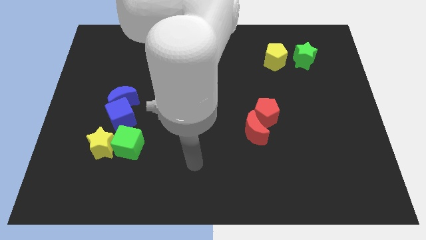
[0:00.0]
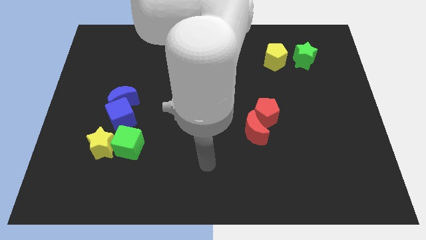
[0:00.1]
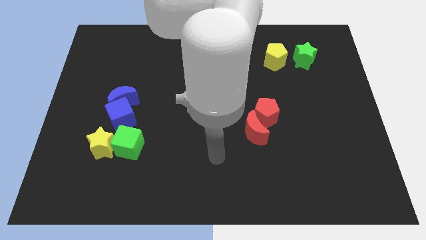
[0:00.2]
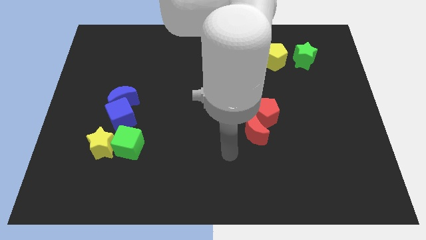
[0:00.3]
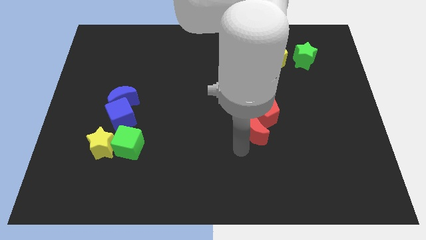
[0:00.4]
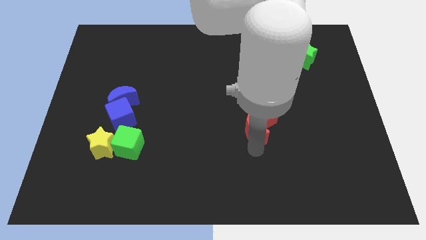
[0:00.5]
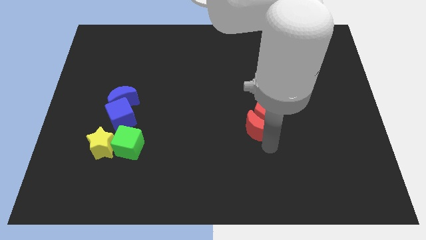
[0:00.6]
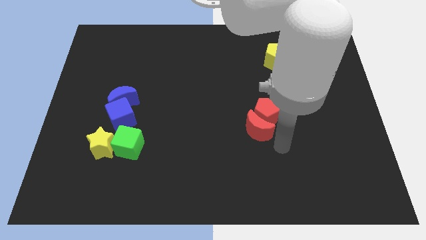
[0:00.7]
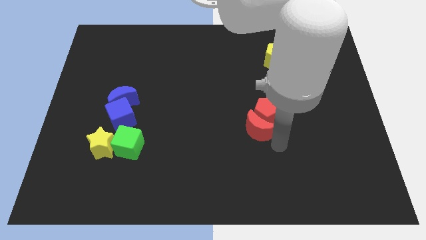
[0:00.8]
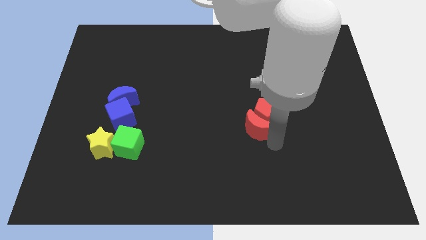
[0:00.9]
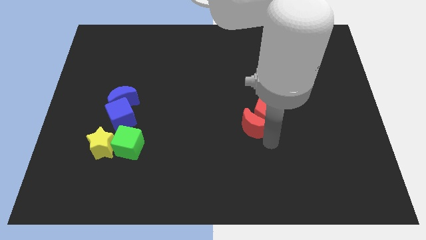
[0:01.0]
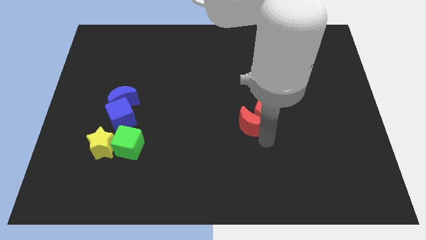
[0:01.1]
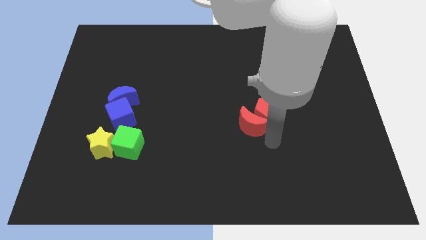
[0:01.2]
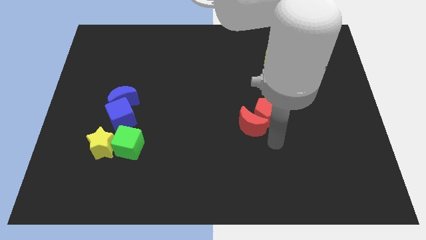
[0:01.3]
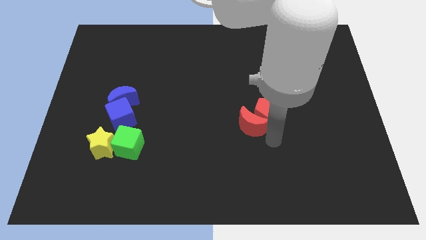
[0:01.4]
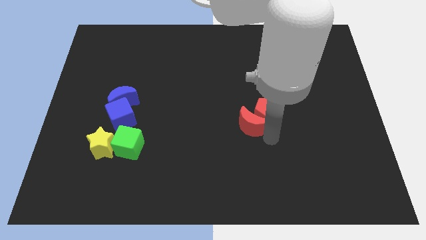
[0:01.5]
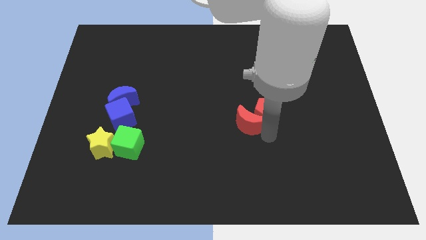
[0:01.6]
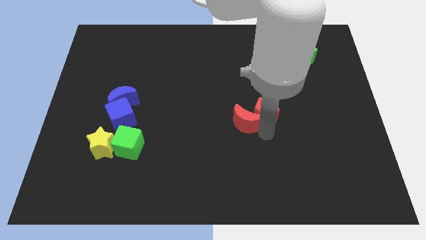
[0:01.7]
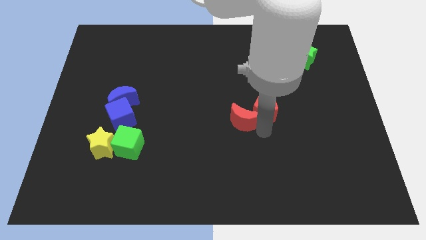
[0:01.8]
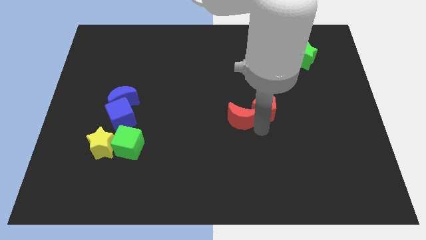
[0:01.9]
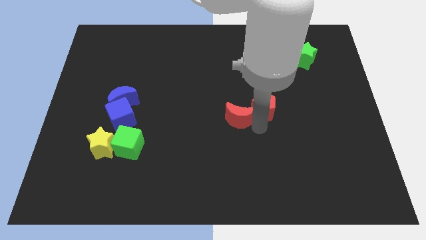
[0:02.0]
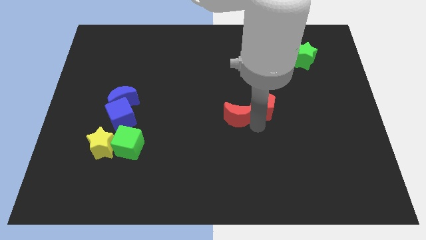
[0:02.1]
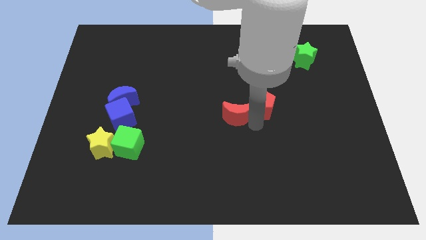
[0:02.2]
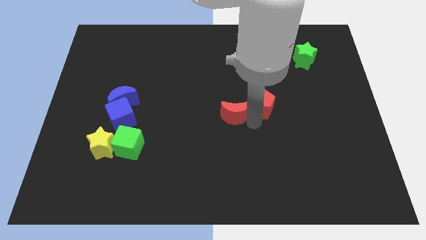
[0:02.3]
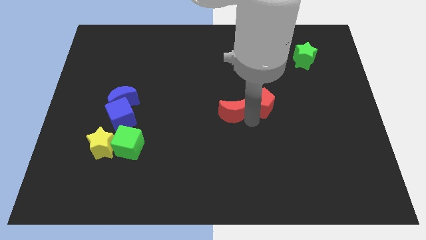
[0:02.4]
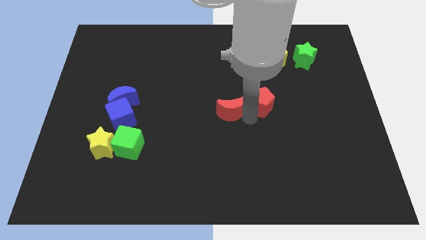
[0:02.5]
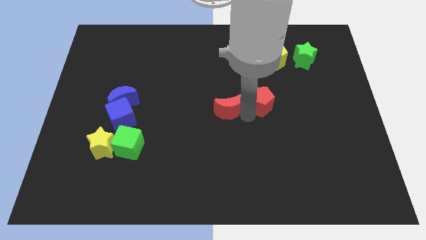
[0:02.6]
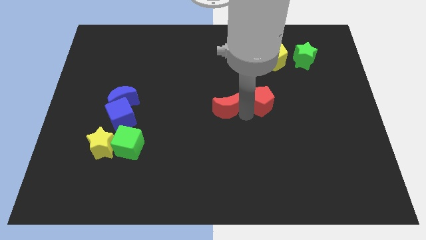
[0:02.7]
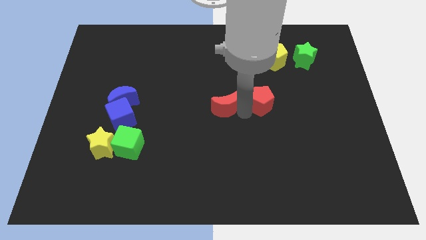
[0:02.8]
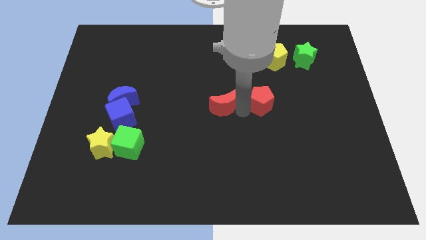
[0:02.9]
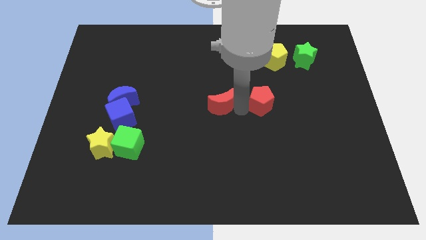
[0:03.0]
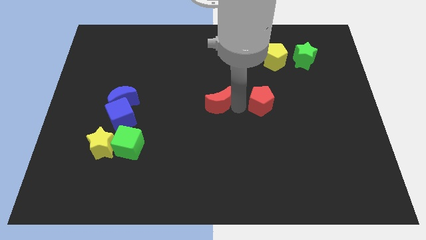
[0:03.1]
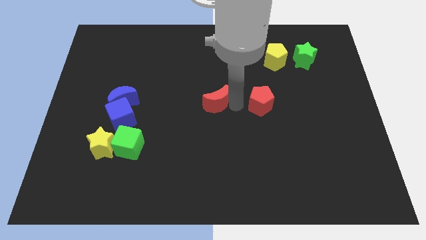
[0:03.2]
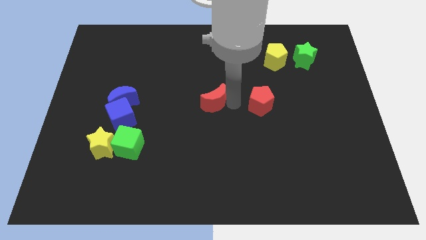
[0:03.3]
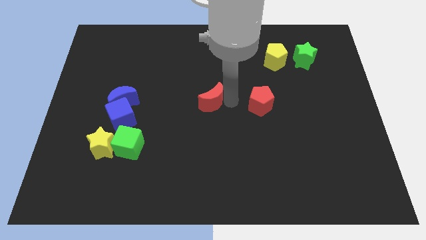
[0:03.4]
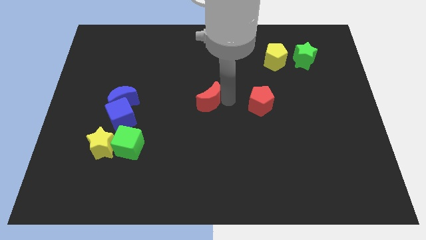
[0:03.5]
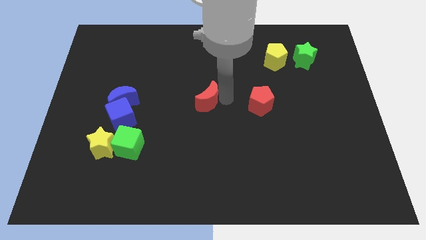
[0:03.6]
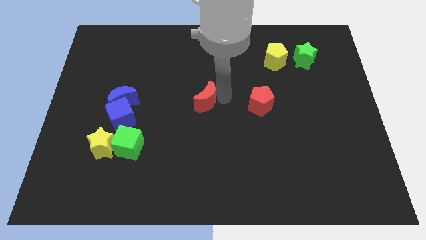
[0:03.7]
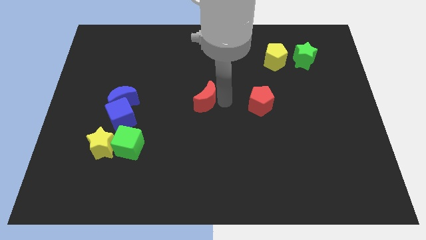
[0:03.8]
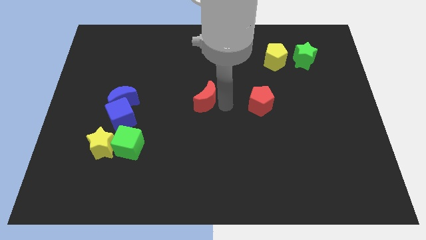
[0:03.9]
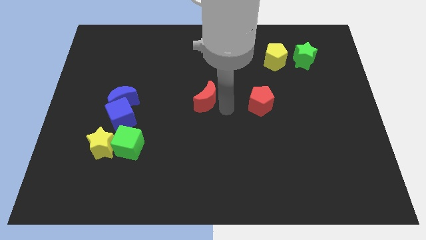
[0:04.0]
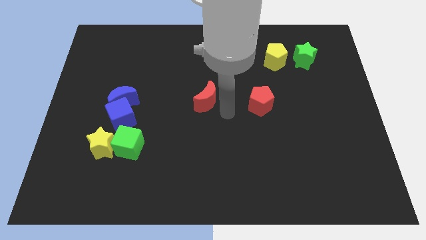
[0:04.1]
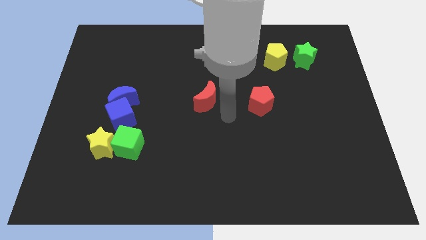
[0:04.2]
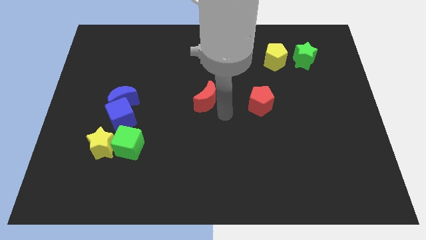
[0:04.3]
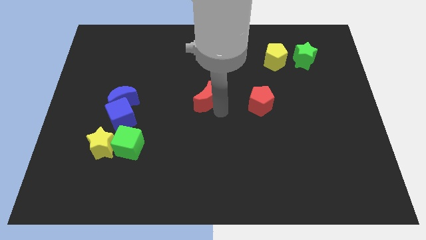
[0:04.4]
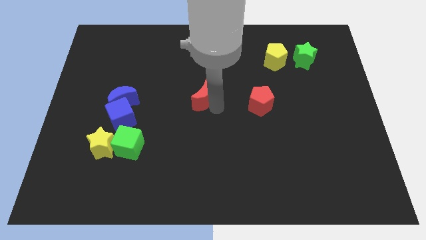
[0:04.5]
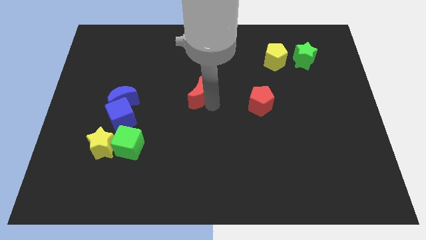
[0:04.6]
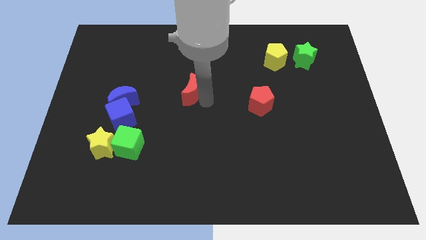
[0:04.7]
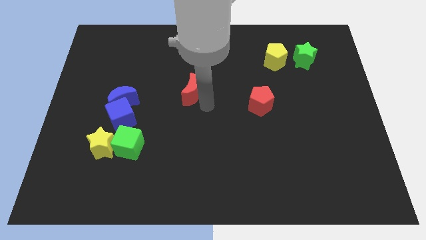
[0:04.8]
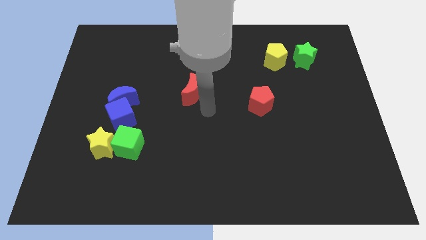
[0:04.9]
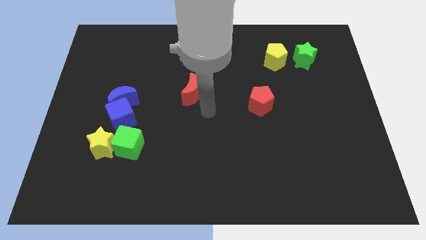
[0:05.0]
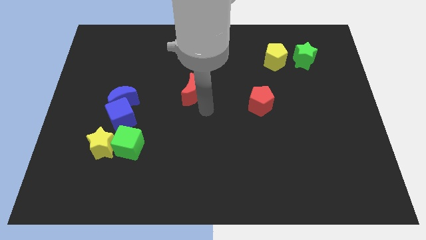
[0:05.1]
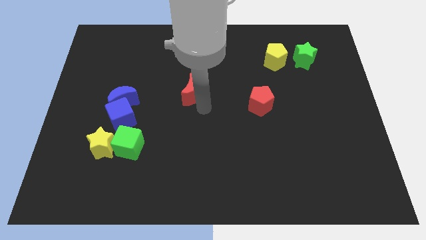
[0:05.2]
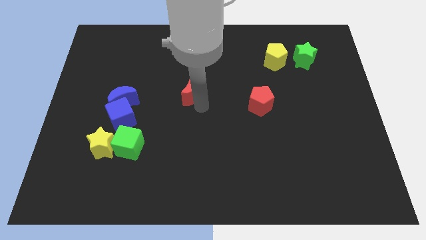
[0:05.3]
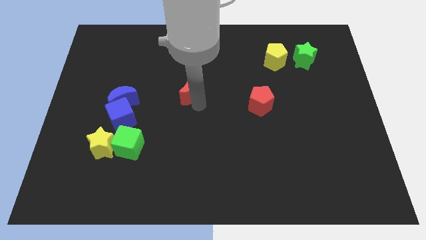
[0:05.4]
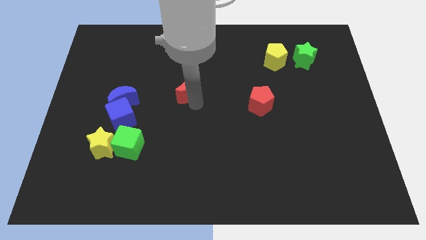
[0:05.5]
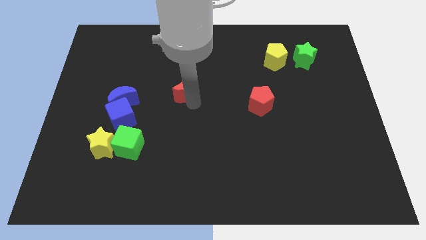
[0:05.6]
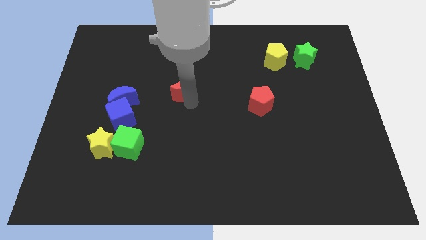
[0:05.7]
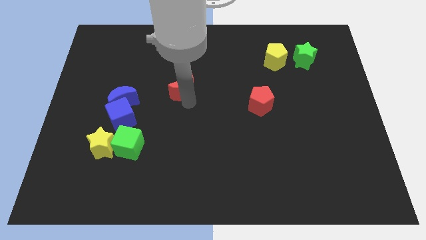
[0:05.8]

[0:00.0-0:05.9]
slide the red moon up and left

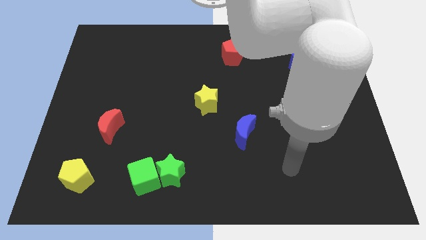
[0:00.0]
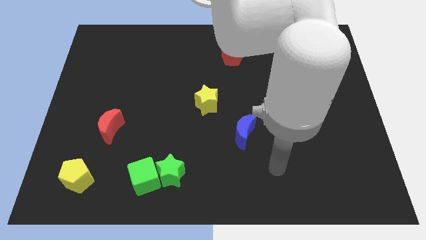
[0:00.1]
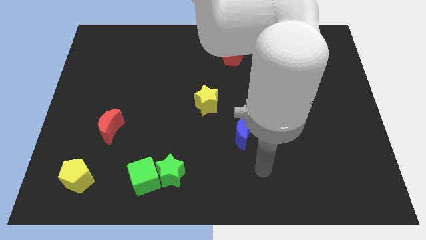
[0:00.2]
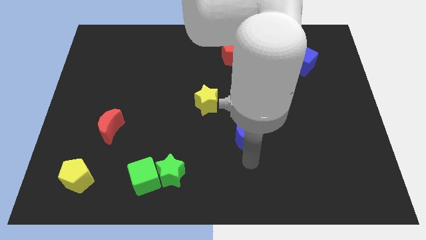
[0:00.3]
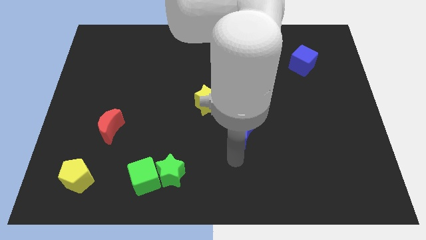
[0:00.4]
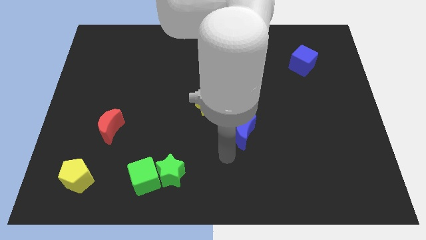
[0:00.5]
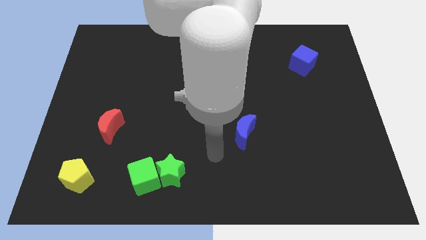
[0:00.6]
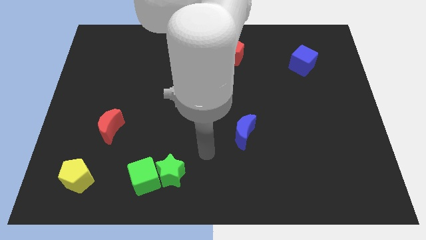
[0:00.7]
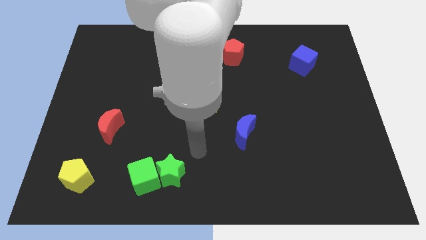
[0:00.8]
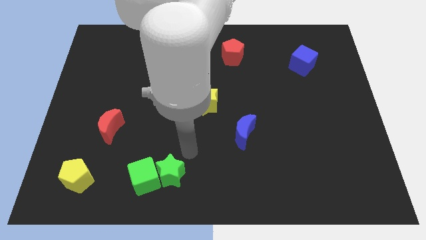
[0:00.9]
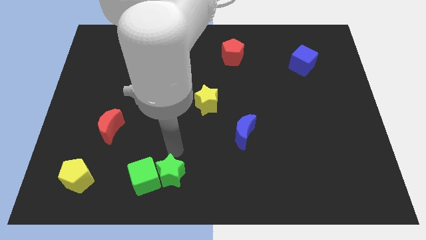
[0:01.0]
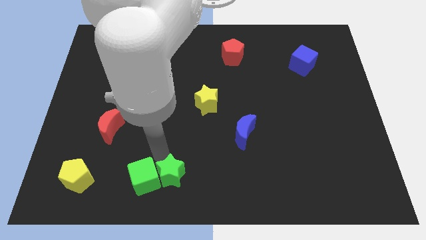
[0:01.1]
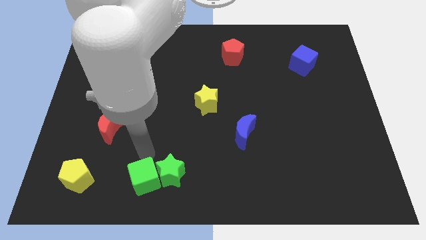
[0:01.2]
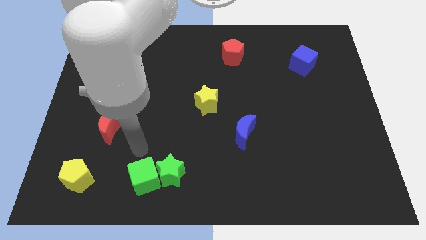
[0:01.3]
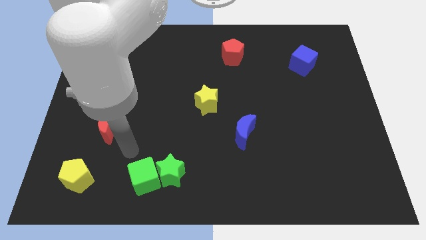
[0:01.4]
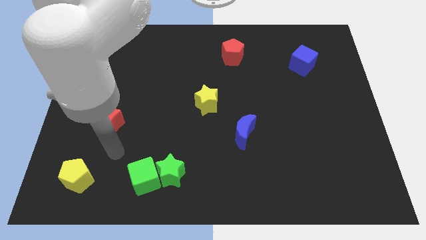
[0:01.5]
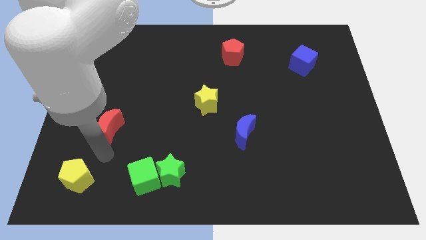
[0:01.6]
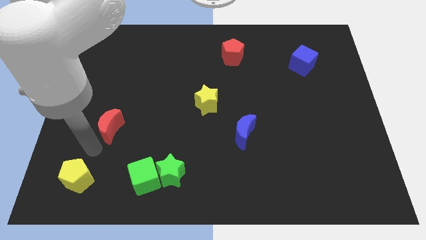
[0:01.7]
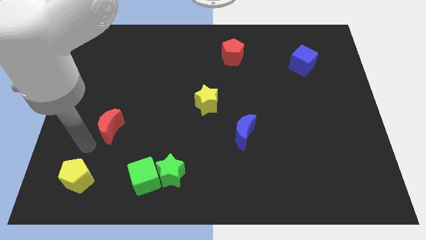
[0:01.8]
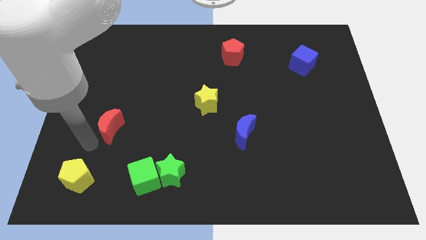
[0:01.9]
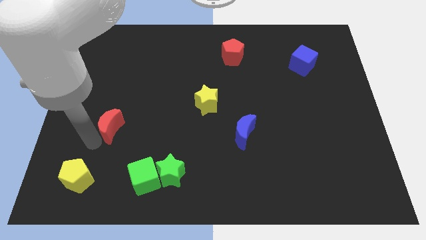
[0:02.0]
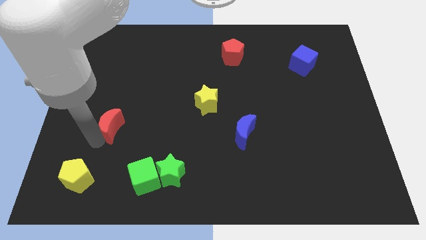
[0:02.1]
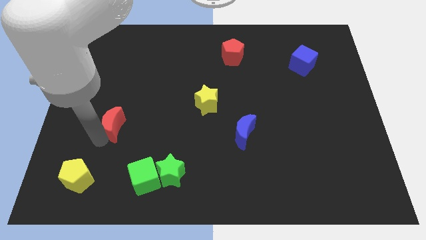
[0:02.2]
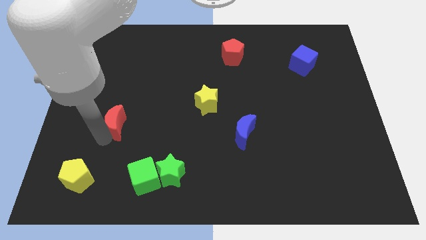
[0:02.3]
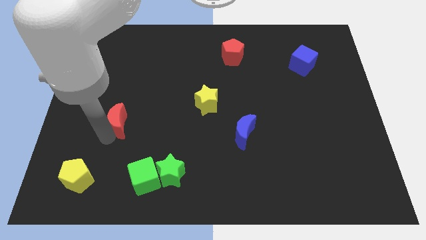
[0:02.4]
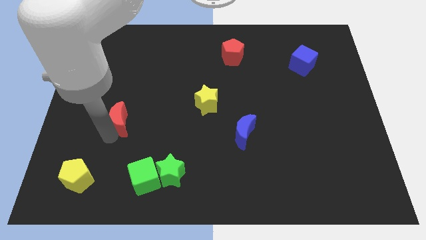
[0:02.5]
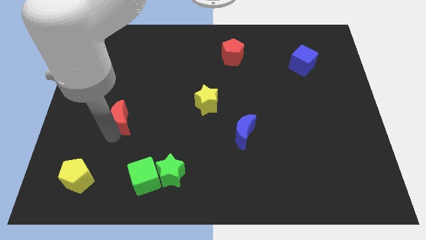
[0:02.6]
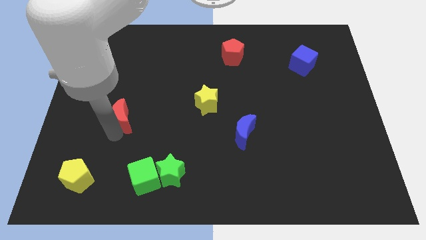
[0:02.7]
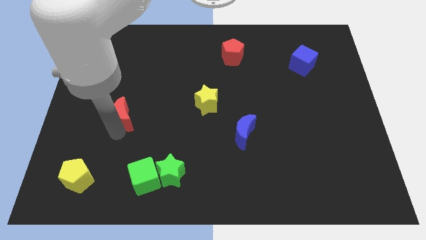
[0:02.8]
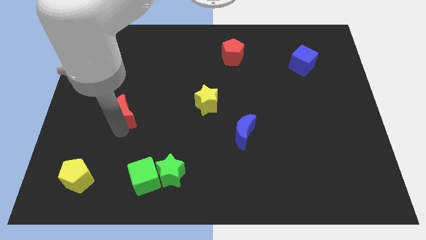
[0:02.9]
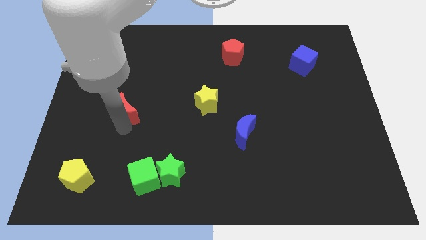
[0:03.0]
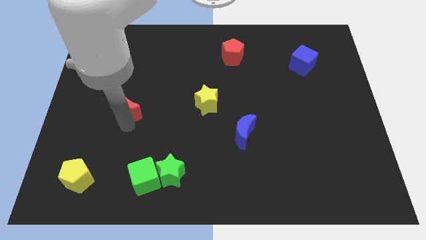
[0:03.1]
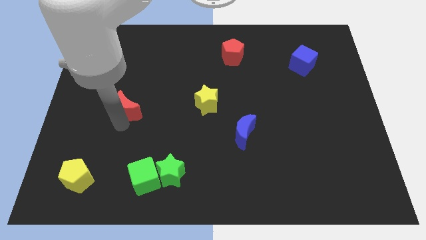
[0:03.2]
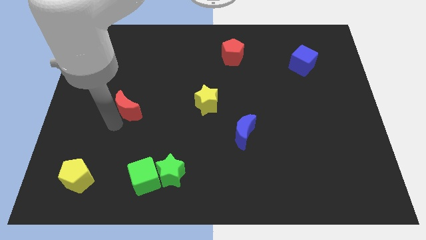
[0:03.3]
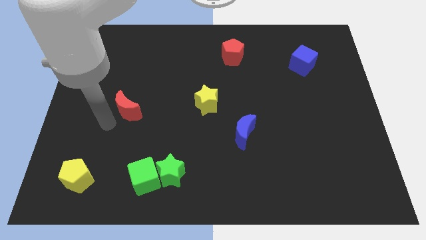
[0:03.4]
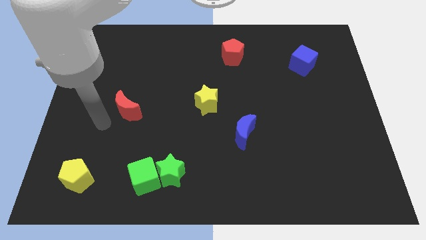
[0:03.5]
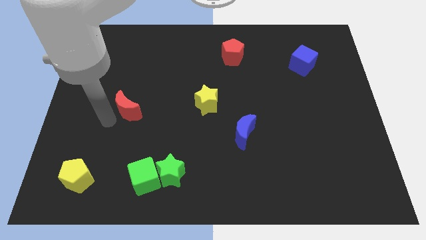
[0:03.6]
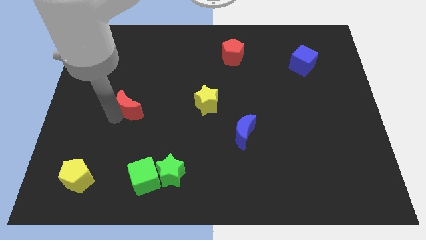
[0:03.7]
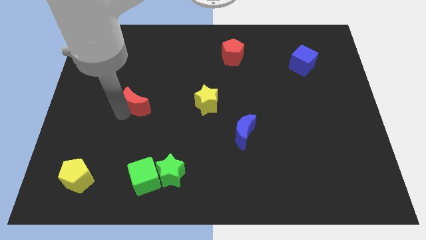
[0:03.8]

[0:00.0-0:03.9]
slightly push the red moon diagonally up and to the right
